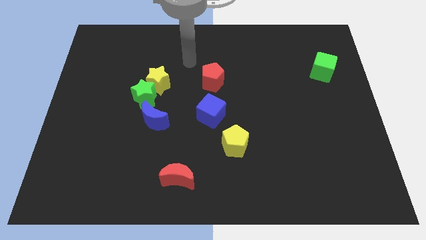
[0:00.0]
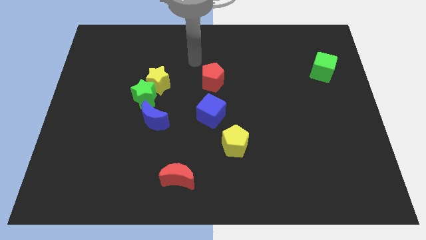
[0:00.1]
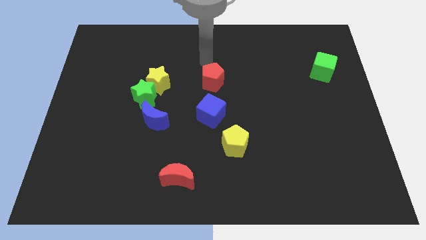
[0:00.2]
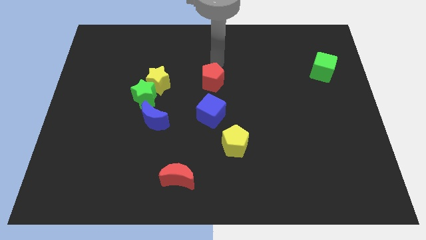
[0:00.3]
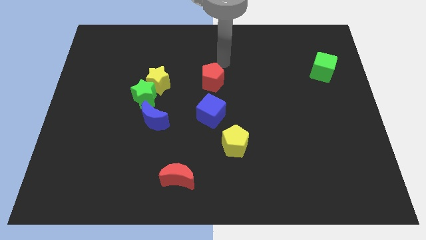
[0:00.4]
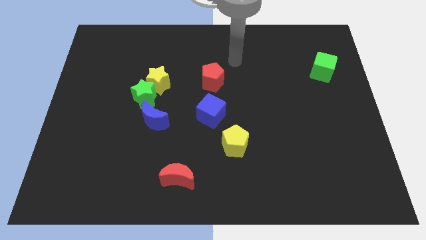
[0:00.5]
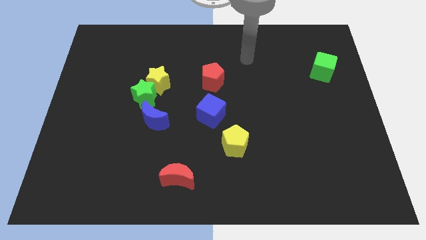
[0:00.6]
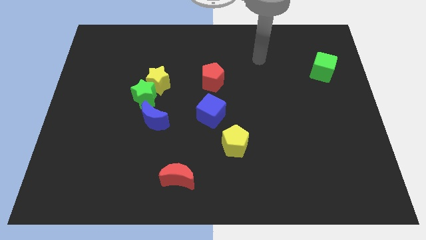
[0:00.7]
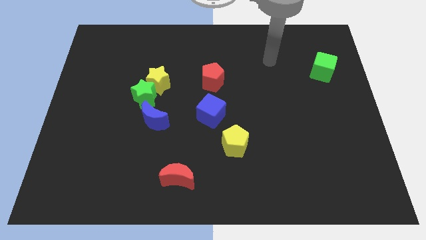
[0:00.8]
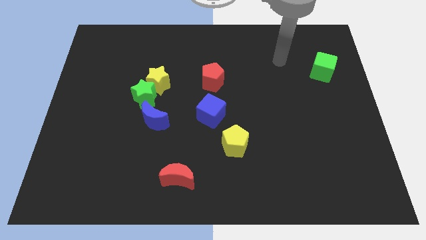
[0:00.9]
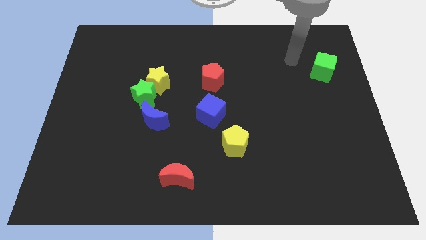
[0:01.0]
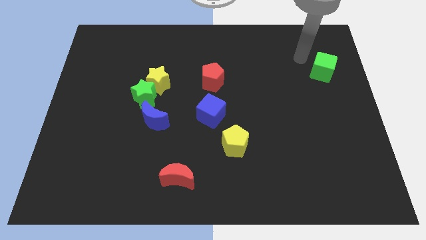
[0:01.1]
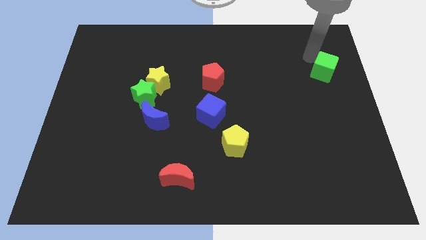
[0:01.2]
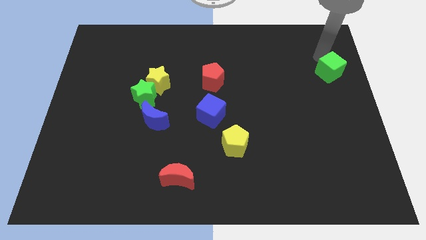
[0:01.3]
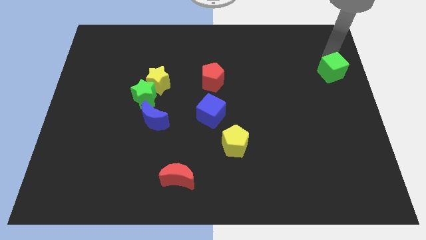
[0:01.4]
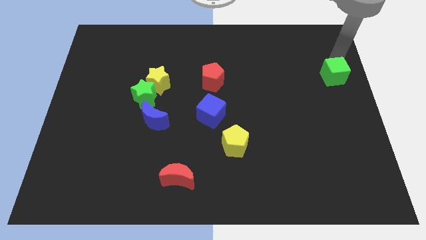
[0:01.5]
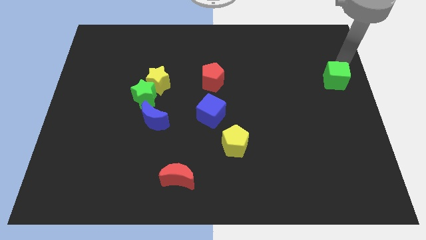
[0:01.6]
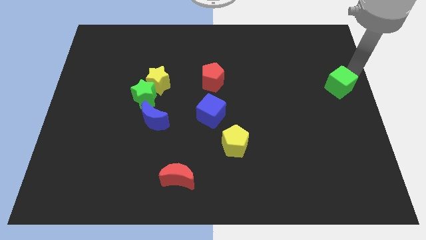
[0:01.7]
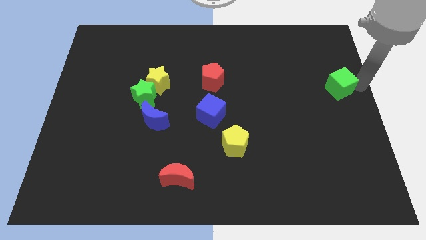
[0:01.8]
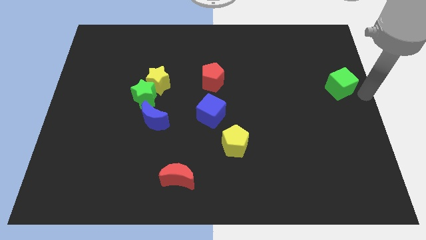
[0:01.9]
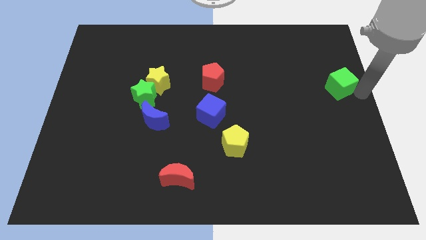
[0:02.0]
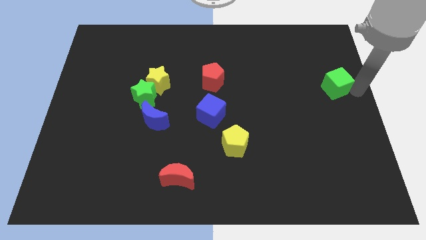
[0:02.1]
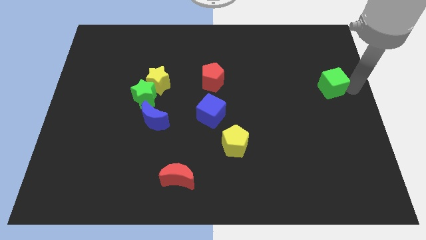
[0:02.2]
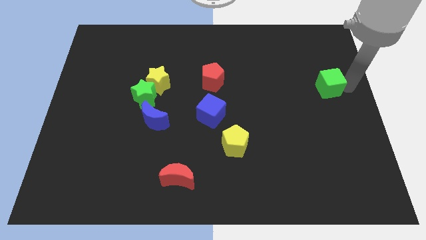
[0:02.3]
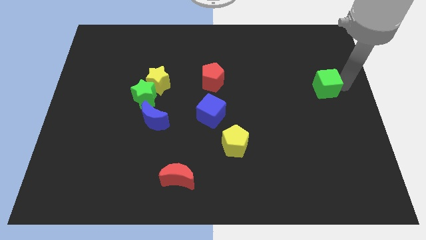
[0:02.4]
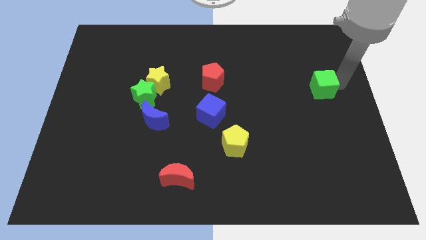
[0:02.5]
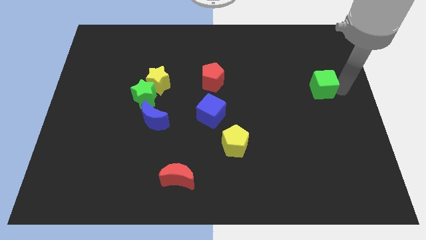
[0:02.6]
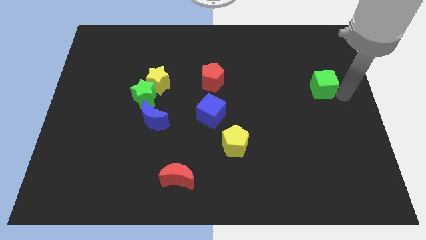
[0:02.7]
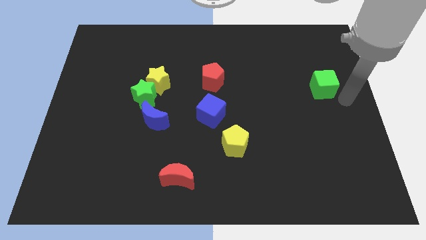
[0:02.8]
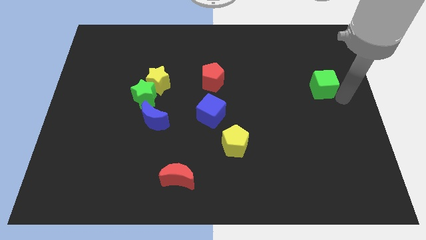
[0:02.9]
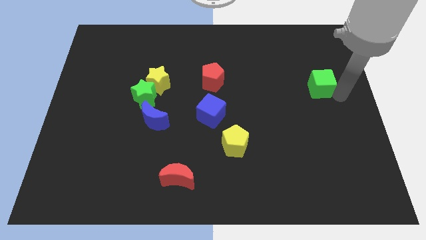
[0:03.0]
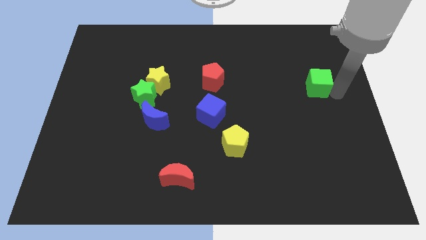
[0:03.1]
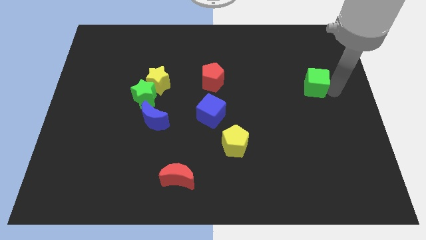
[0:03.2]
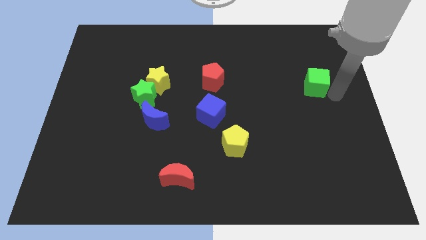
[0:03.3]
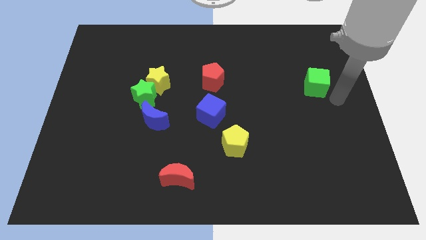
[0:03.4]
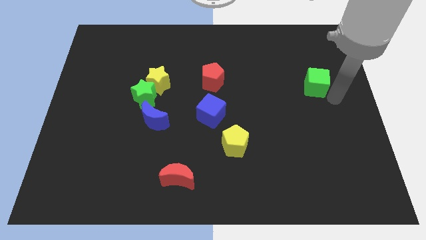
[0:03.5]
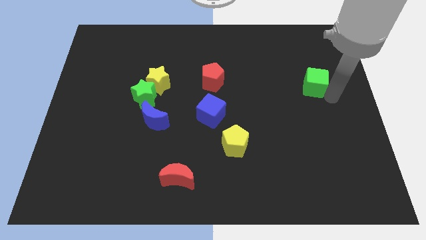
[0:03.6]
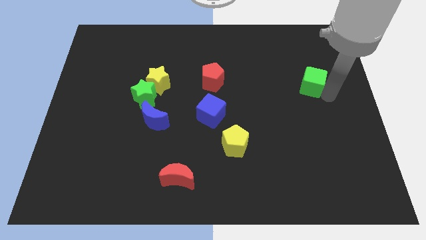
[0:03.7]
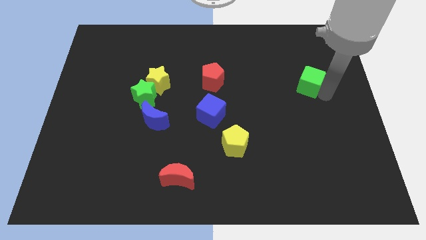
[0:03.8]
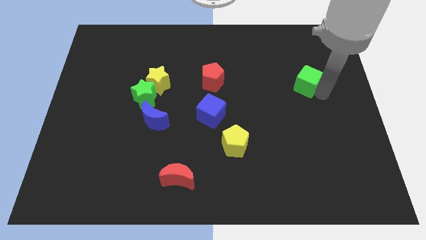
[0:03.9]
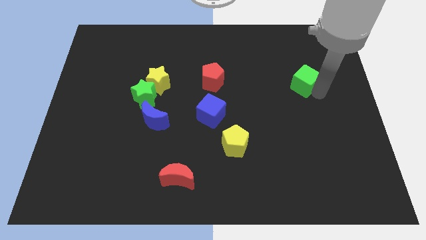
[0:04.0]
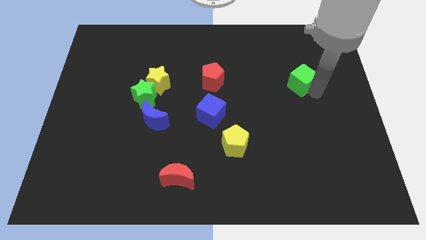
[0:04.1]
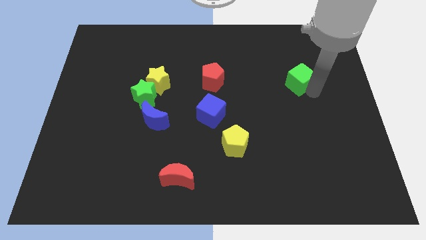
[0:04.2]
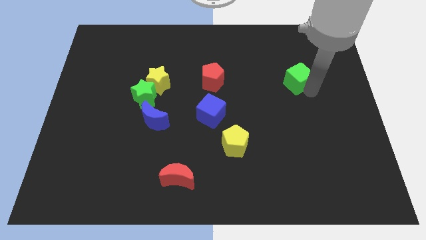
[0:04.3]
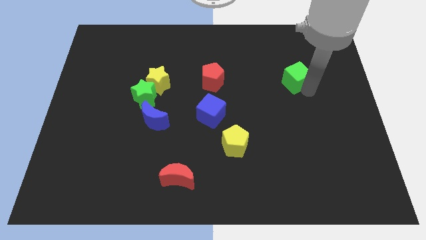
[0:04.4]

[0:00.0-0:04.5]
push the green cube a bit left

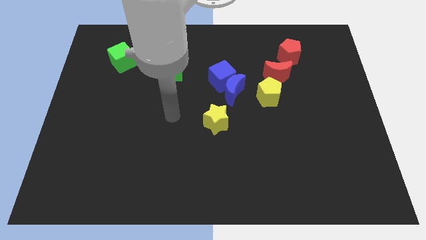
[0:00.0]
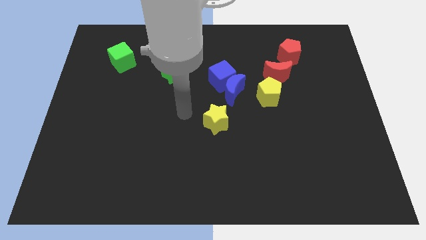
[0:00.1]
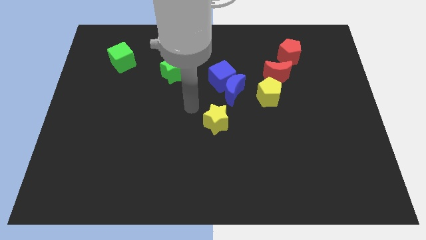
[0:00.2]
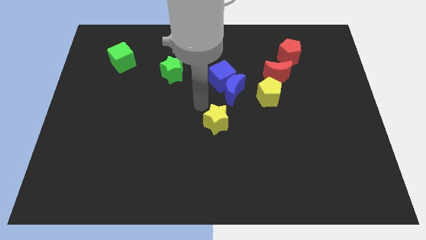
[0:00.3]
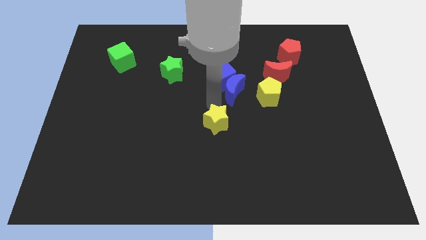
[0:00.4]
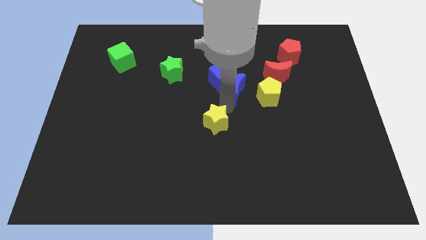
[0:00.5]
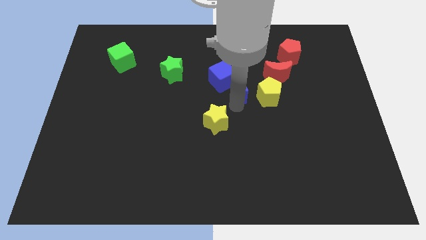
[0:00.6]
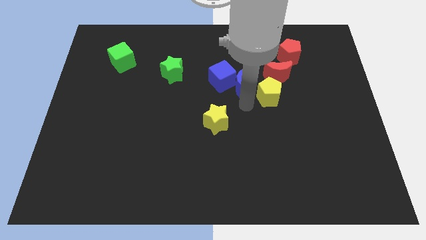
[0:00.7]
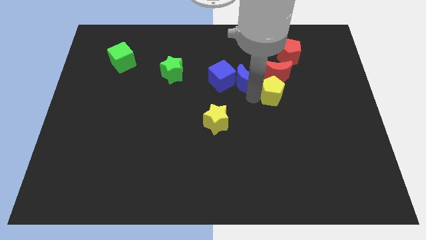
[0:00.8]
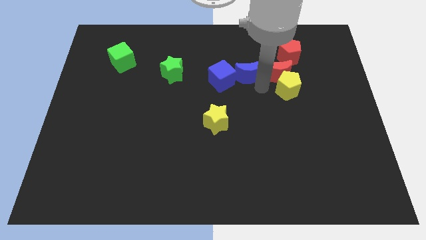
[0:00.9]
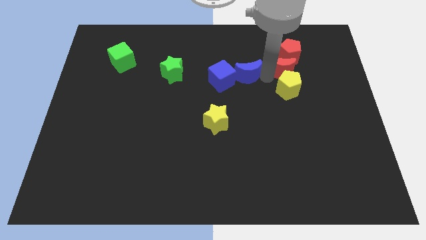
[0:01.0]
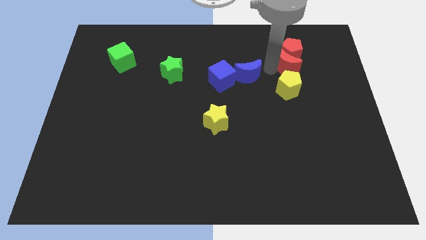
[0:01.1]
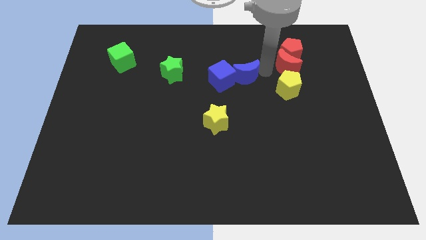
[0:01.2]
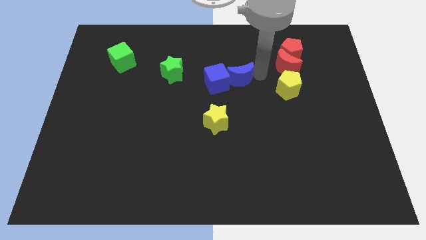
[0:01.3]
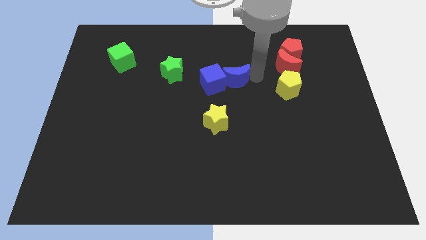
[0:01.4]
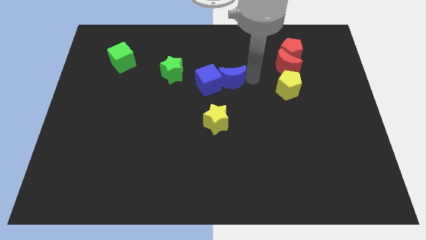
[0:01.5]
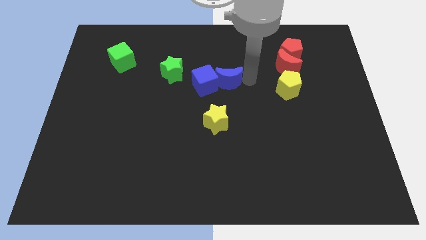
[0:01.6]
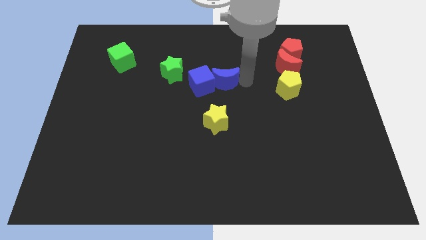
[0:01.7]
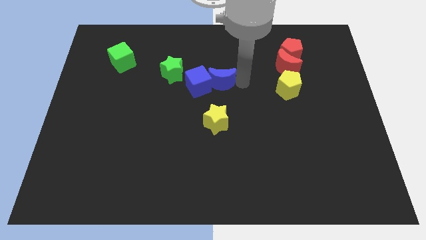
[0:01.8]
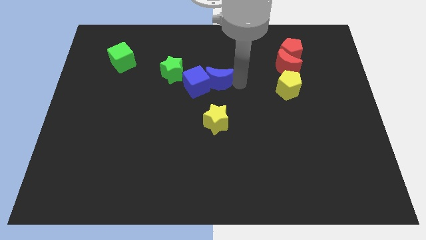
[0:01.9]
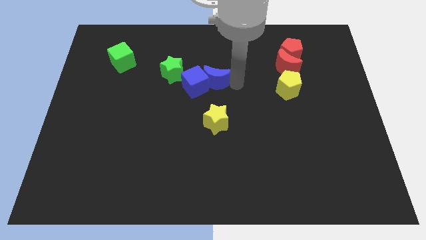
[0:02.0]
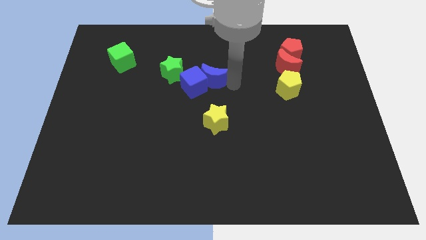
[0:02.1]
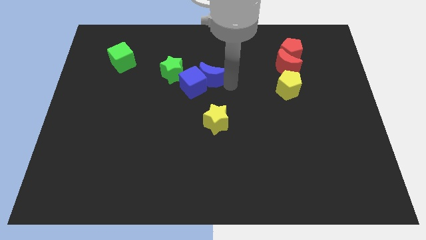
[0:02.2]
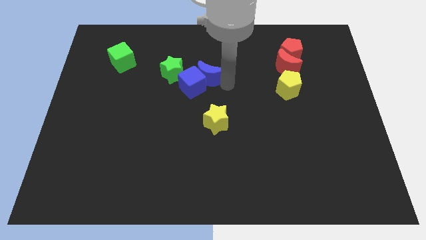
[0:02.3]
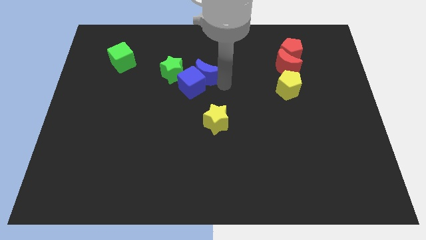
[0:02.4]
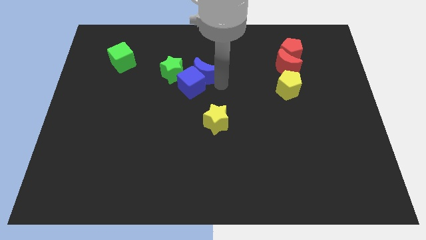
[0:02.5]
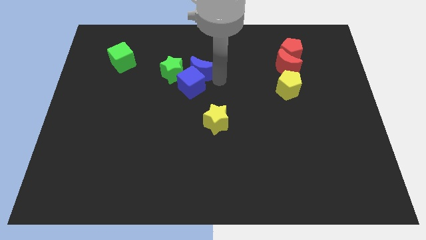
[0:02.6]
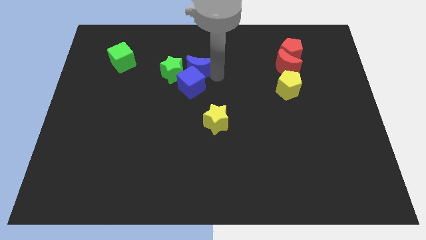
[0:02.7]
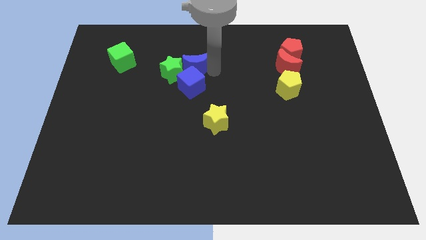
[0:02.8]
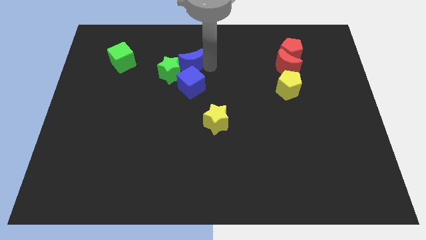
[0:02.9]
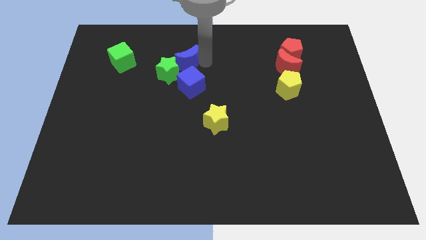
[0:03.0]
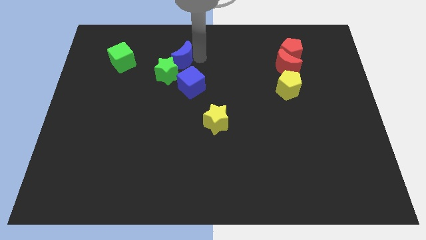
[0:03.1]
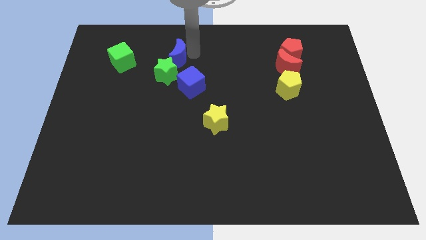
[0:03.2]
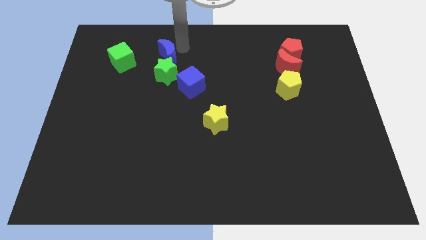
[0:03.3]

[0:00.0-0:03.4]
slide the blue moon to the left a little
